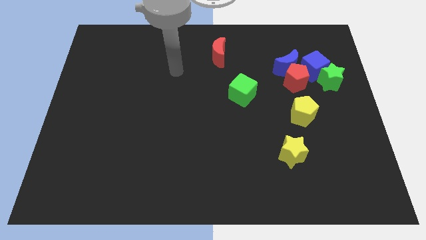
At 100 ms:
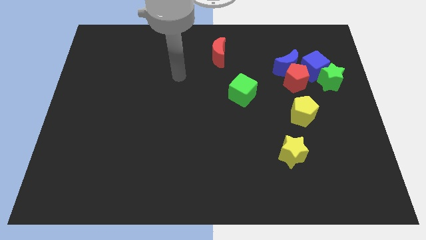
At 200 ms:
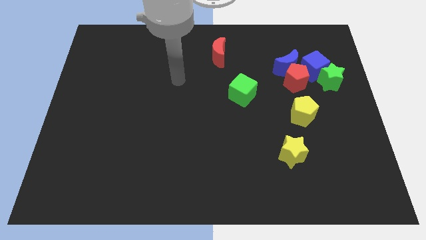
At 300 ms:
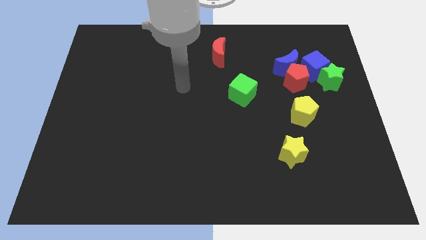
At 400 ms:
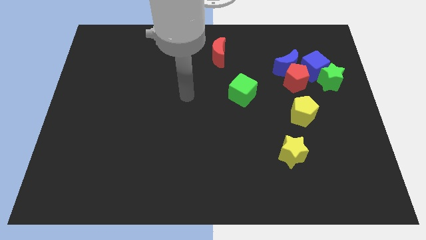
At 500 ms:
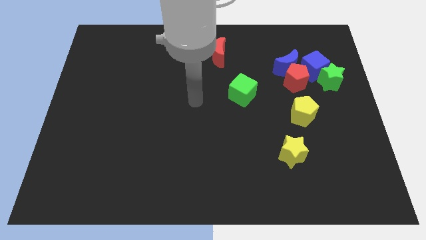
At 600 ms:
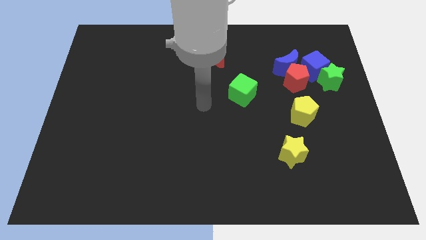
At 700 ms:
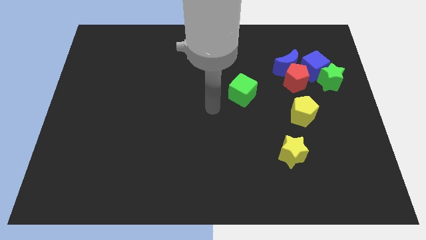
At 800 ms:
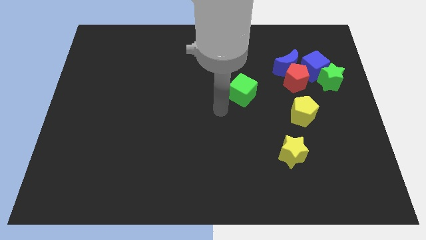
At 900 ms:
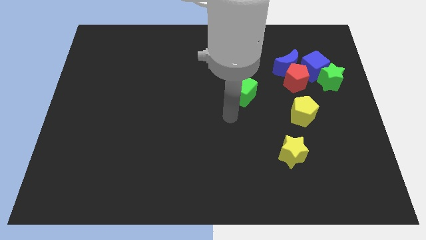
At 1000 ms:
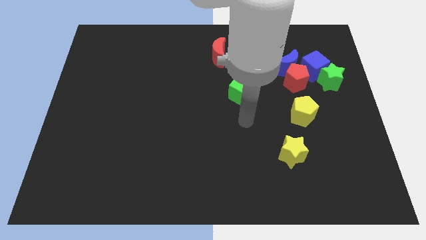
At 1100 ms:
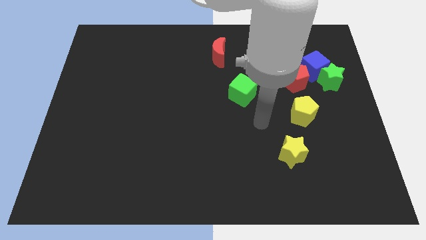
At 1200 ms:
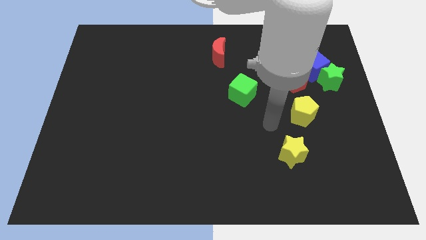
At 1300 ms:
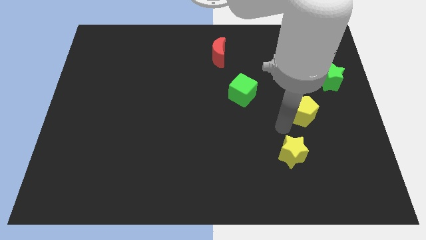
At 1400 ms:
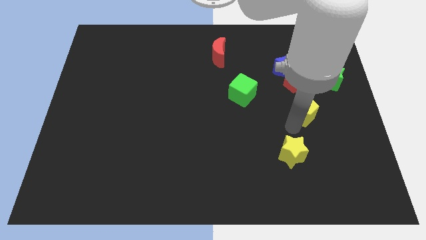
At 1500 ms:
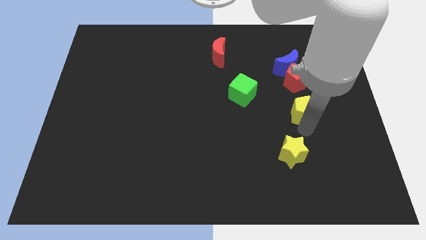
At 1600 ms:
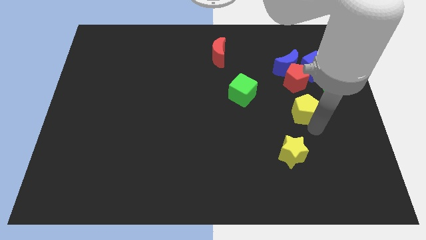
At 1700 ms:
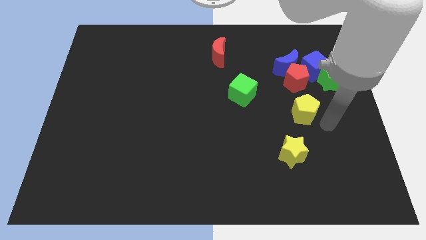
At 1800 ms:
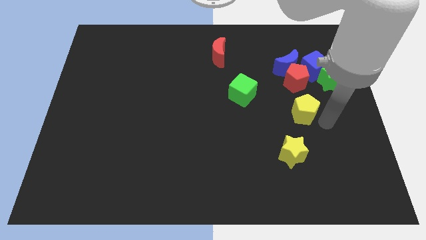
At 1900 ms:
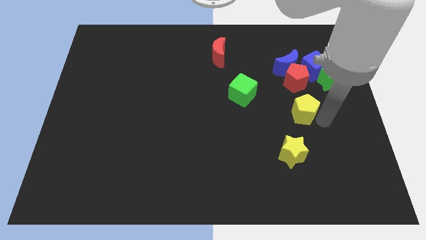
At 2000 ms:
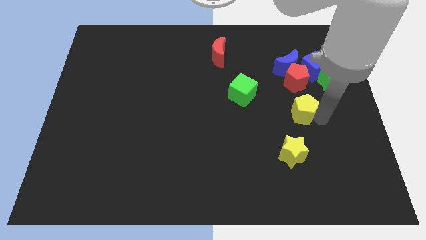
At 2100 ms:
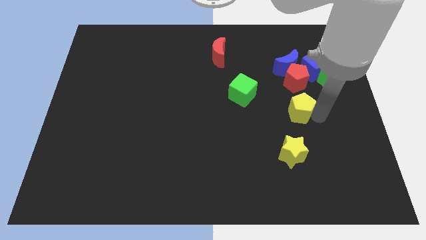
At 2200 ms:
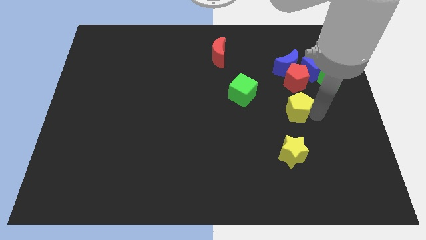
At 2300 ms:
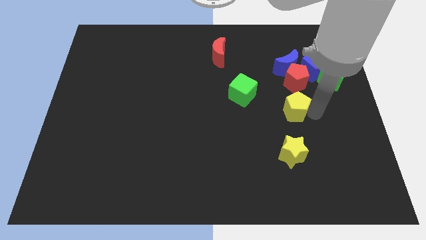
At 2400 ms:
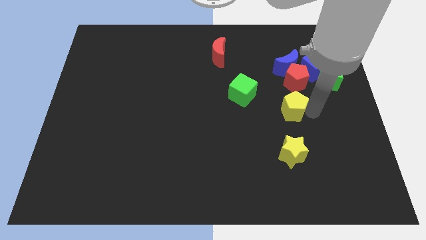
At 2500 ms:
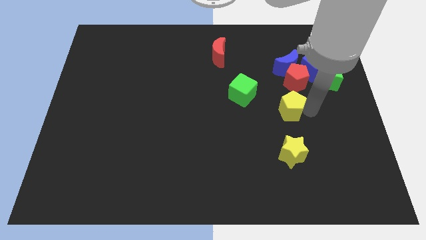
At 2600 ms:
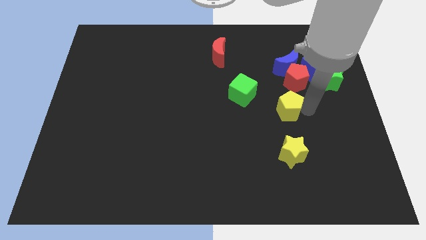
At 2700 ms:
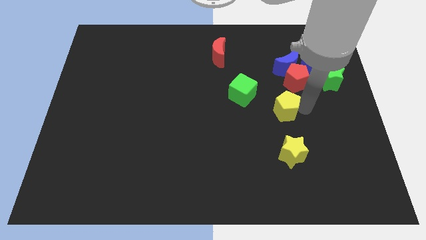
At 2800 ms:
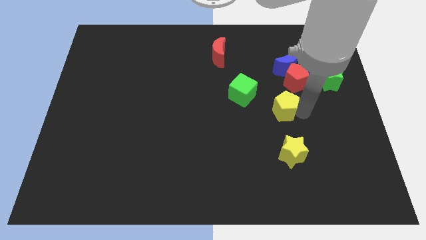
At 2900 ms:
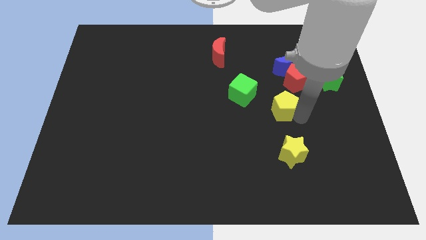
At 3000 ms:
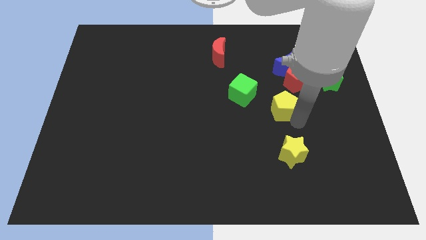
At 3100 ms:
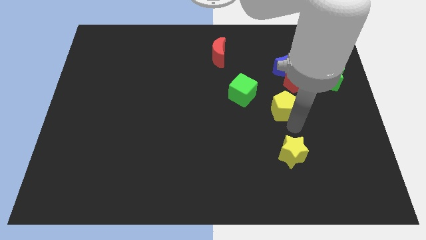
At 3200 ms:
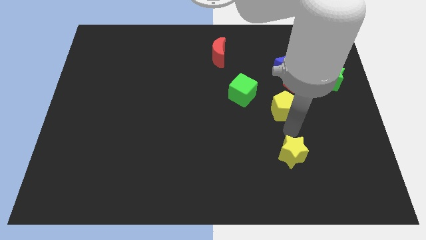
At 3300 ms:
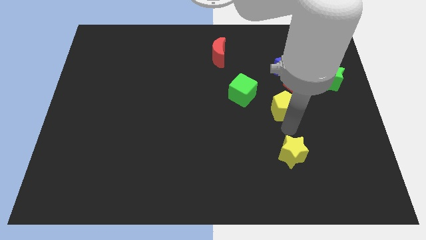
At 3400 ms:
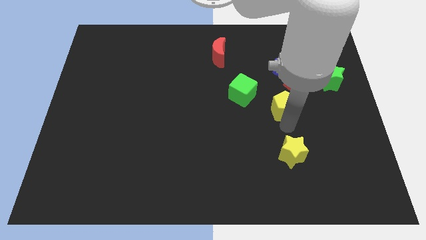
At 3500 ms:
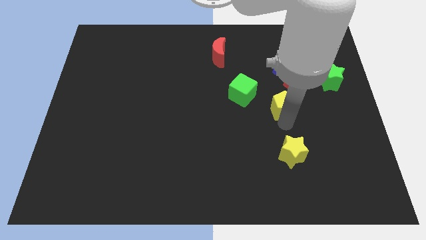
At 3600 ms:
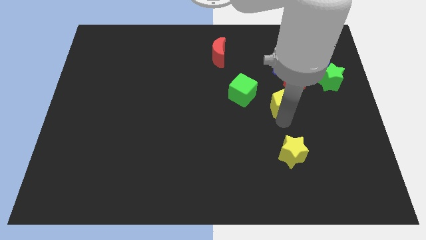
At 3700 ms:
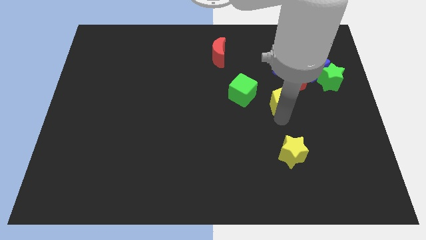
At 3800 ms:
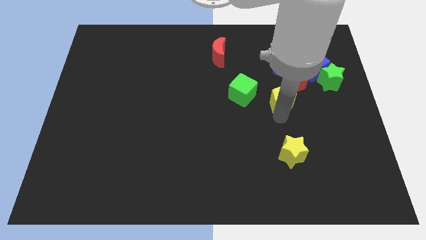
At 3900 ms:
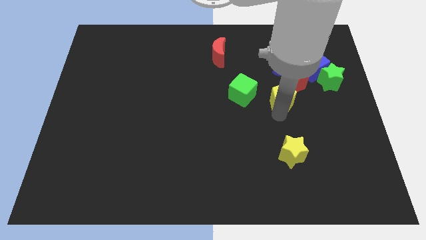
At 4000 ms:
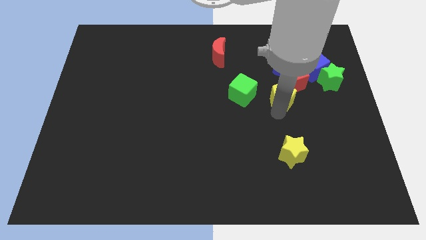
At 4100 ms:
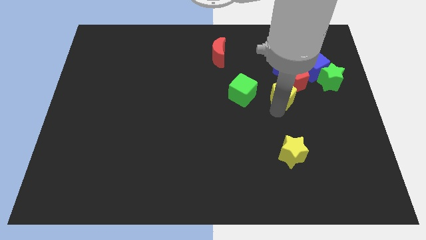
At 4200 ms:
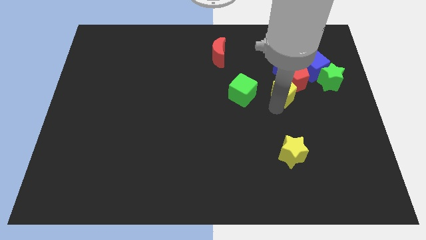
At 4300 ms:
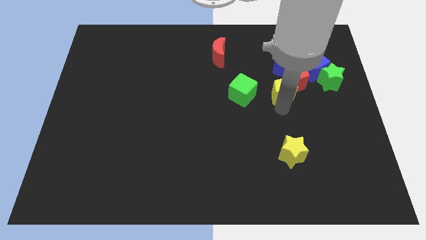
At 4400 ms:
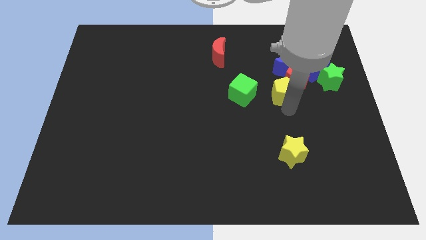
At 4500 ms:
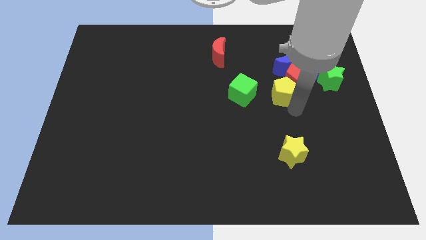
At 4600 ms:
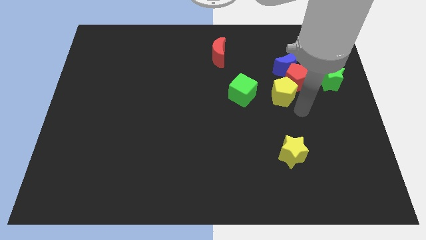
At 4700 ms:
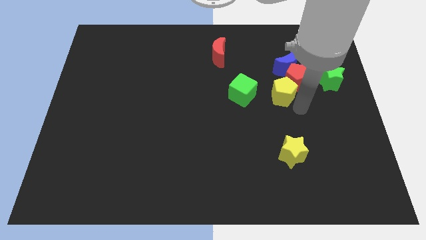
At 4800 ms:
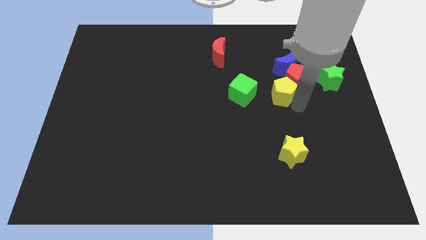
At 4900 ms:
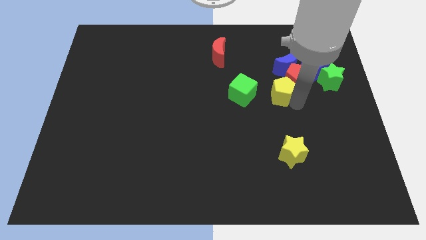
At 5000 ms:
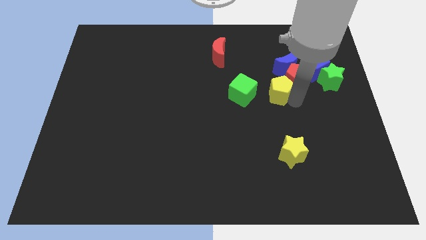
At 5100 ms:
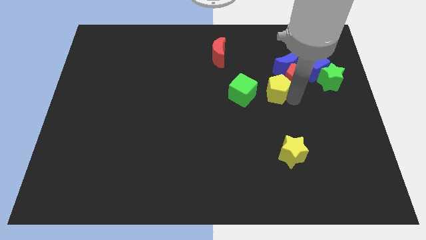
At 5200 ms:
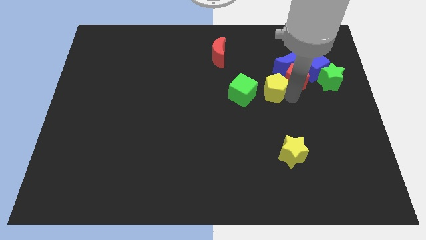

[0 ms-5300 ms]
move the yellow pentagon diagonally up and to the right of the green cube

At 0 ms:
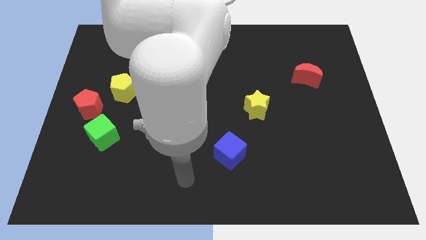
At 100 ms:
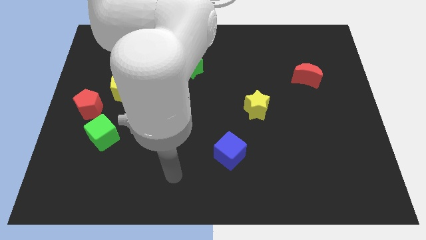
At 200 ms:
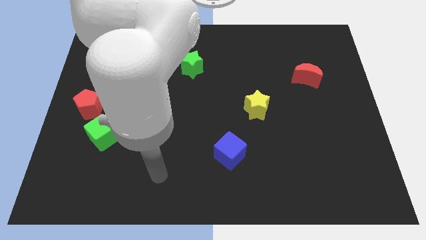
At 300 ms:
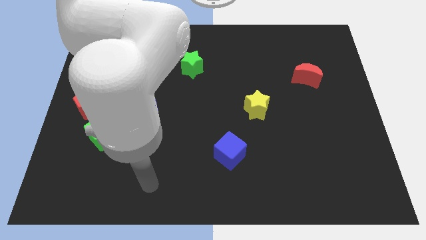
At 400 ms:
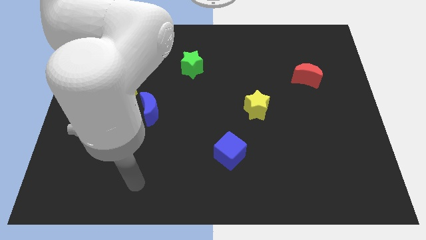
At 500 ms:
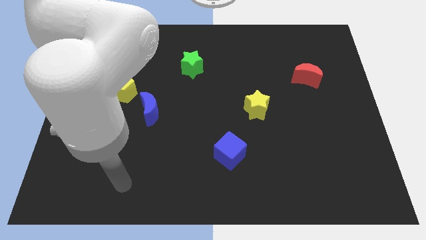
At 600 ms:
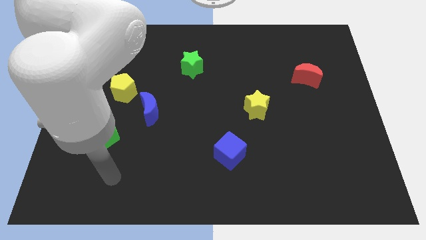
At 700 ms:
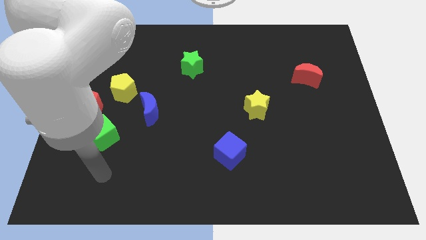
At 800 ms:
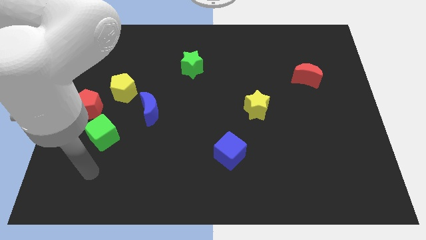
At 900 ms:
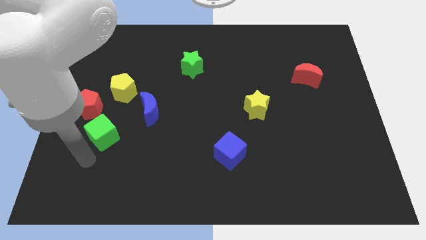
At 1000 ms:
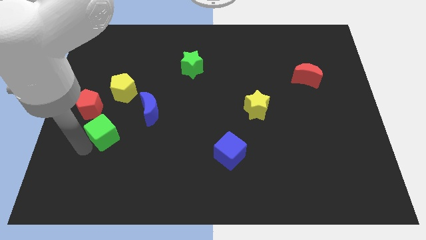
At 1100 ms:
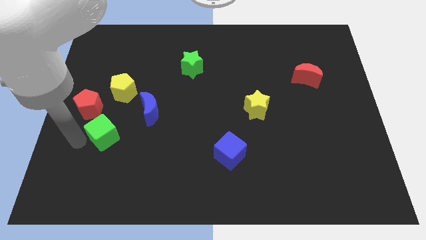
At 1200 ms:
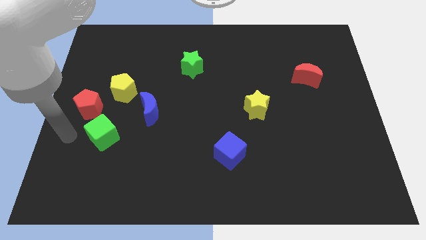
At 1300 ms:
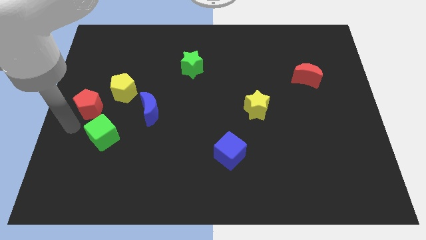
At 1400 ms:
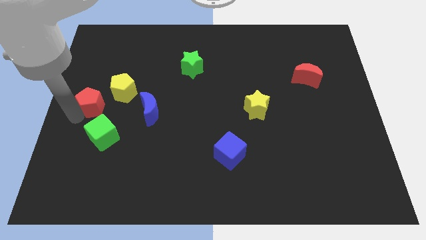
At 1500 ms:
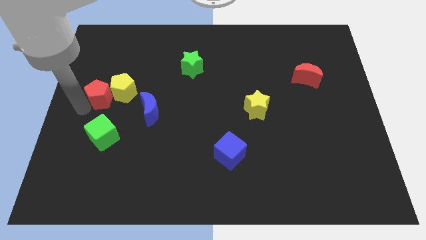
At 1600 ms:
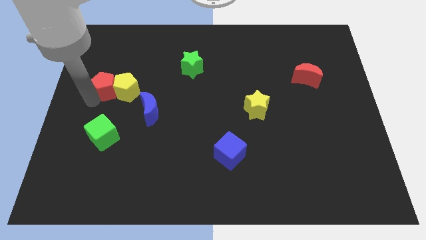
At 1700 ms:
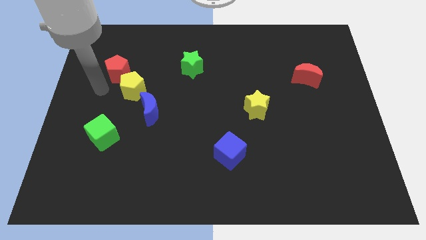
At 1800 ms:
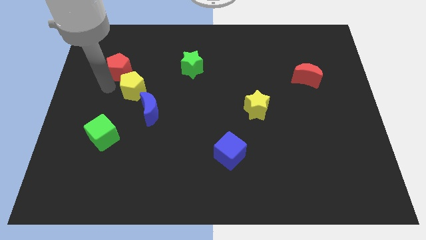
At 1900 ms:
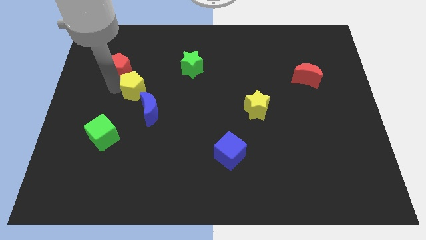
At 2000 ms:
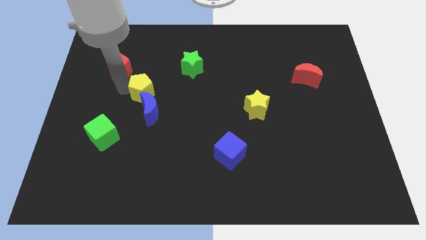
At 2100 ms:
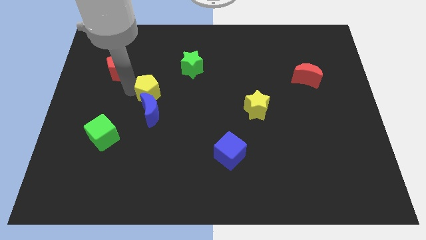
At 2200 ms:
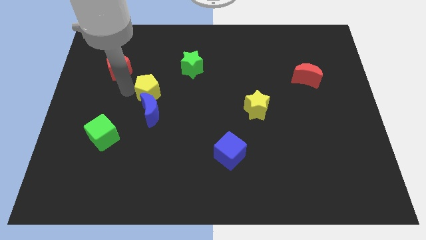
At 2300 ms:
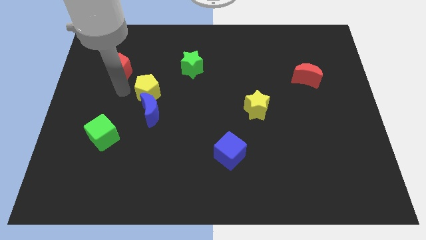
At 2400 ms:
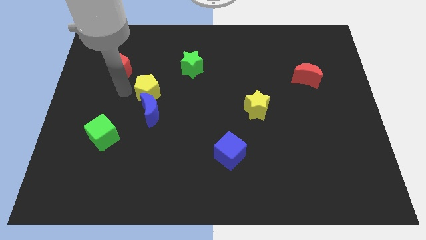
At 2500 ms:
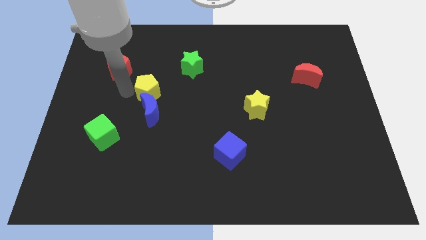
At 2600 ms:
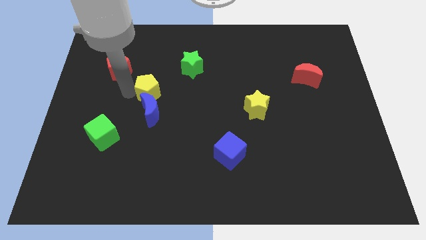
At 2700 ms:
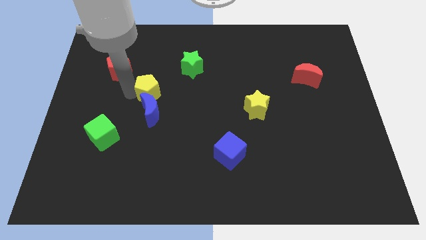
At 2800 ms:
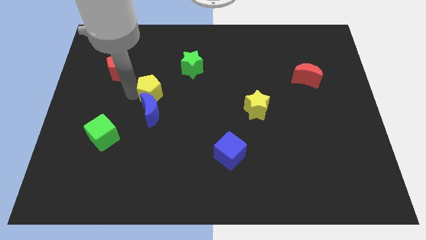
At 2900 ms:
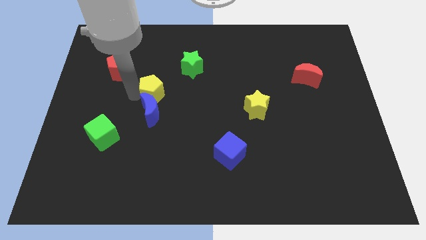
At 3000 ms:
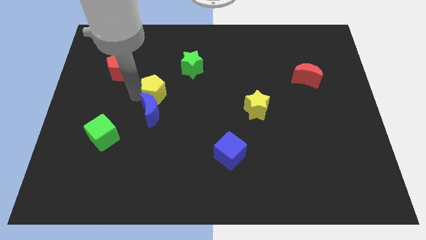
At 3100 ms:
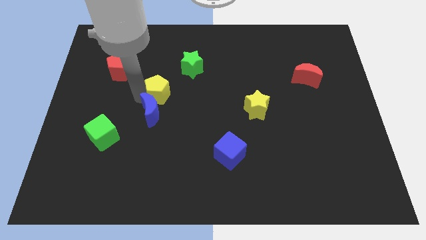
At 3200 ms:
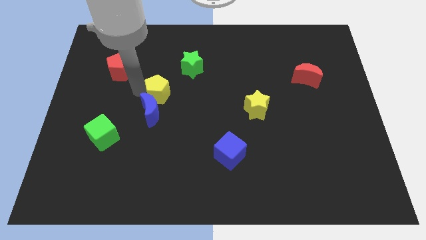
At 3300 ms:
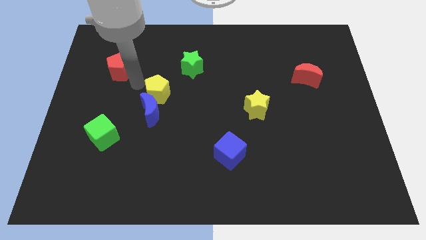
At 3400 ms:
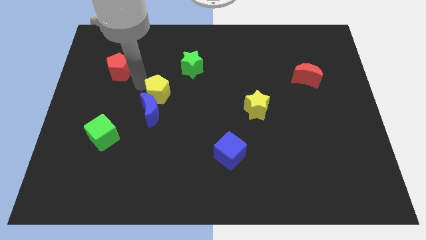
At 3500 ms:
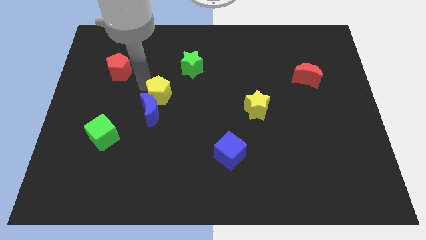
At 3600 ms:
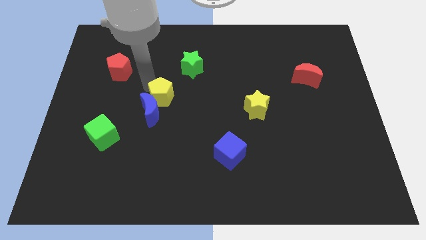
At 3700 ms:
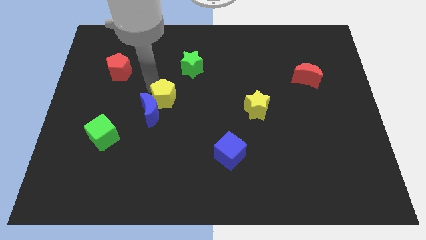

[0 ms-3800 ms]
slide the yellow pentagon to the right side of the blue moon
